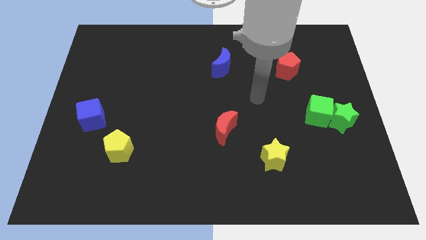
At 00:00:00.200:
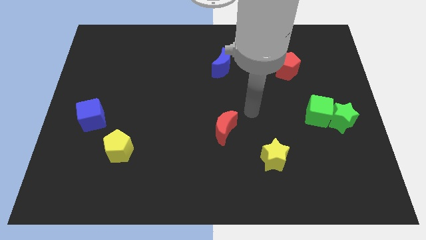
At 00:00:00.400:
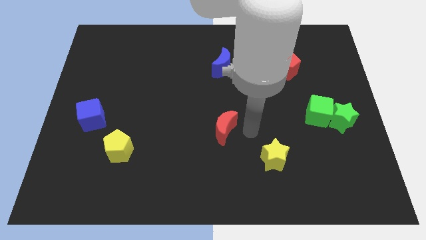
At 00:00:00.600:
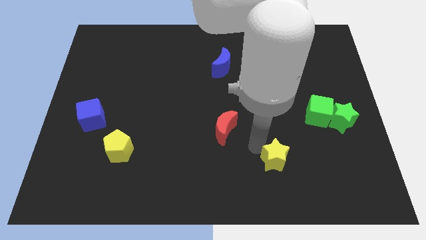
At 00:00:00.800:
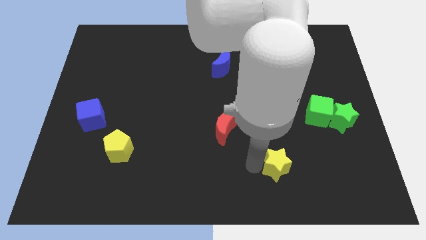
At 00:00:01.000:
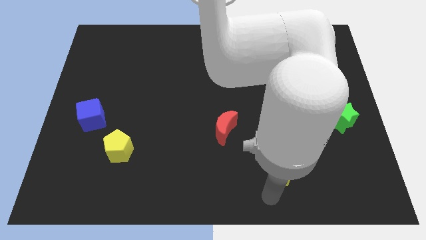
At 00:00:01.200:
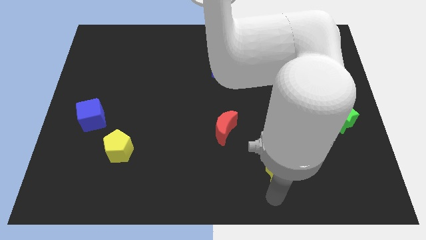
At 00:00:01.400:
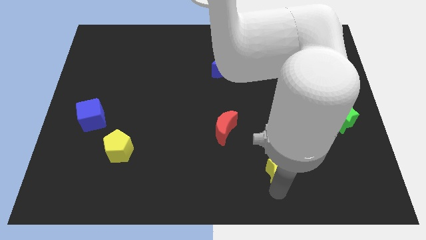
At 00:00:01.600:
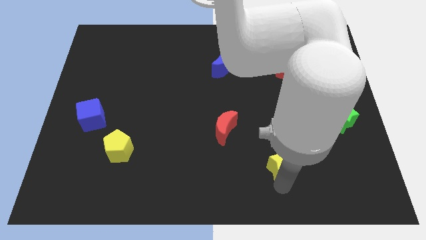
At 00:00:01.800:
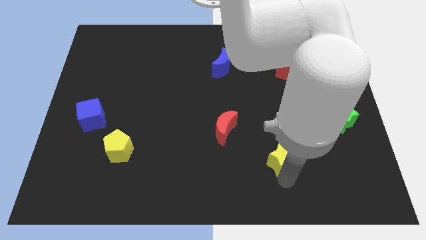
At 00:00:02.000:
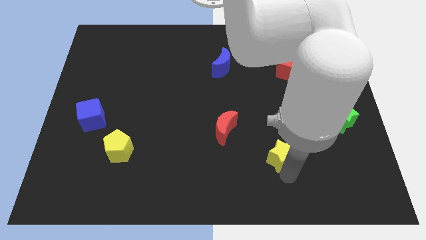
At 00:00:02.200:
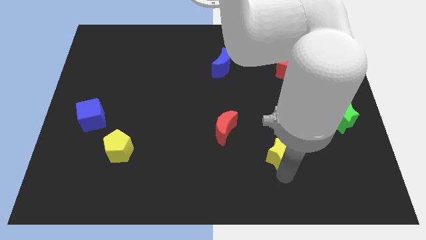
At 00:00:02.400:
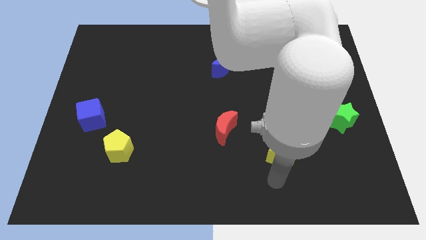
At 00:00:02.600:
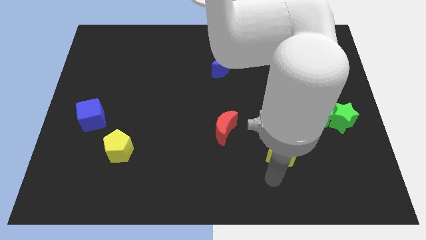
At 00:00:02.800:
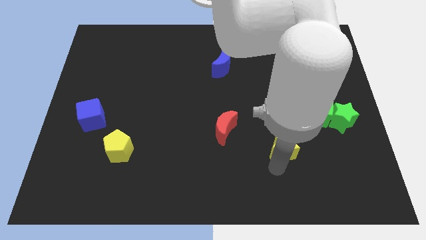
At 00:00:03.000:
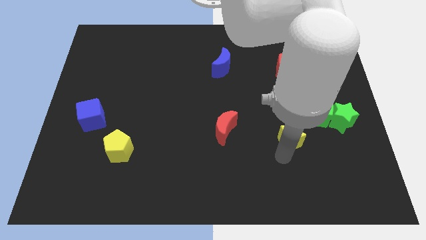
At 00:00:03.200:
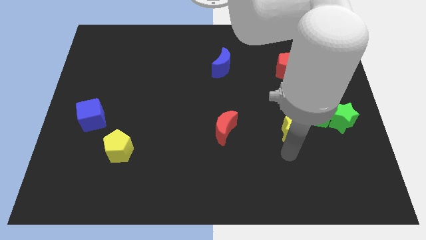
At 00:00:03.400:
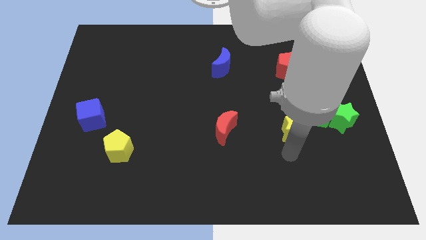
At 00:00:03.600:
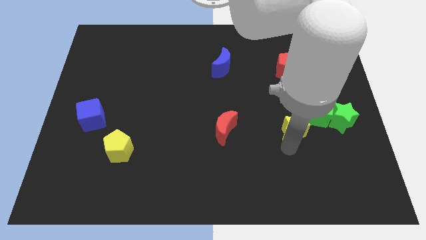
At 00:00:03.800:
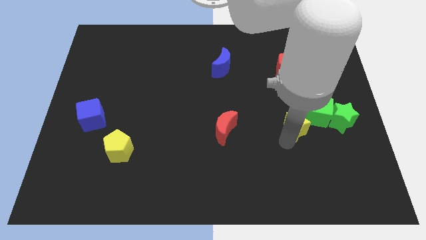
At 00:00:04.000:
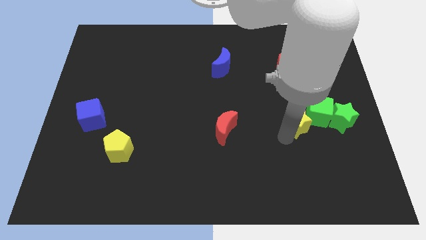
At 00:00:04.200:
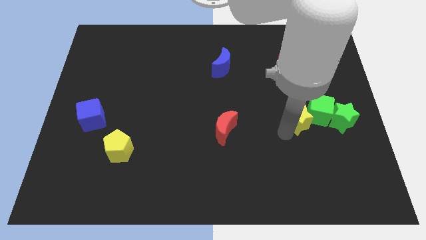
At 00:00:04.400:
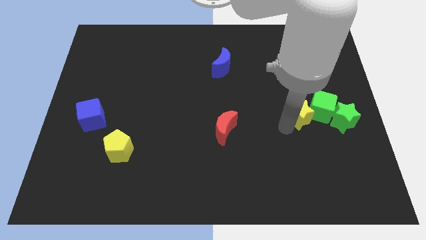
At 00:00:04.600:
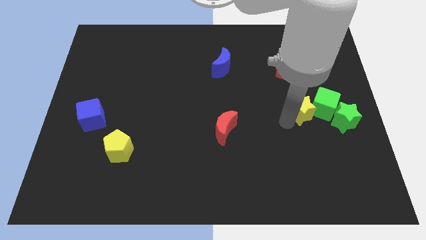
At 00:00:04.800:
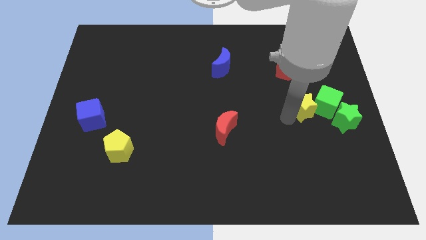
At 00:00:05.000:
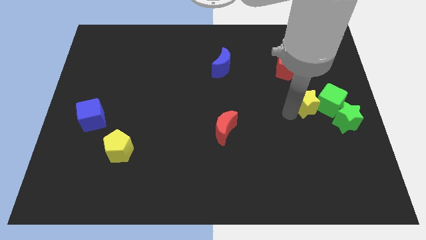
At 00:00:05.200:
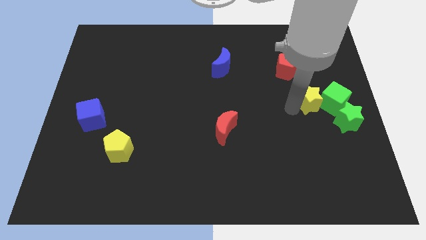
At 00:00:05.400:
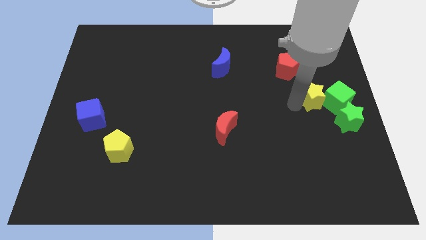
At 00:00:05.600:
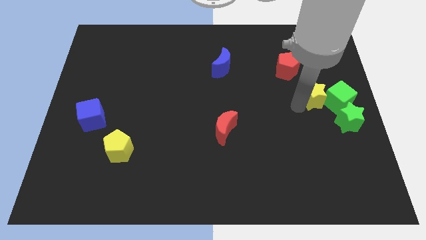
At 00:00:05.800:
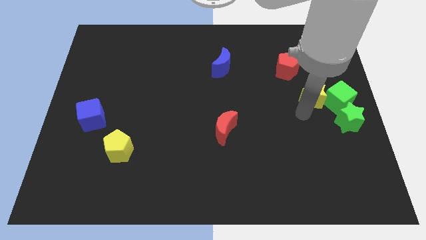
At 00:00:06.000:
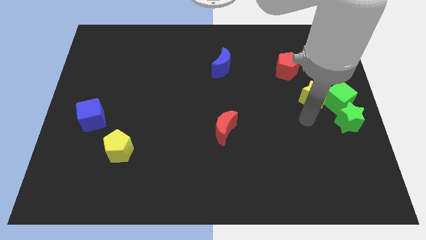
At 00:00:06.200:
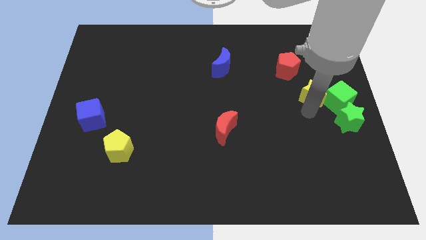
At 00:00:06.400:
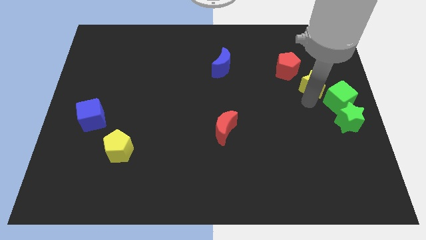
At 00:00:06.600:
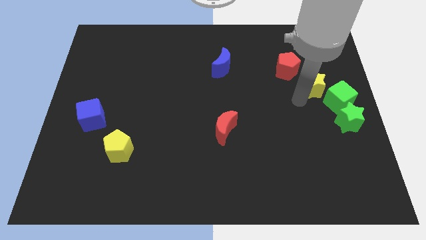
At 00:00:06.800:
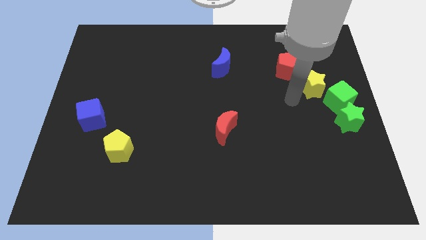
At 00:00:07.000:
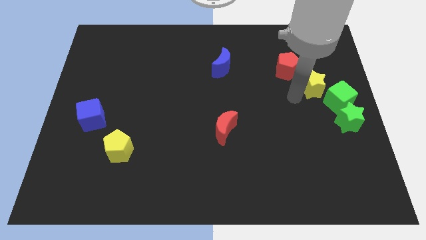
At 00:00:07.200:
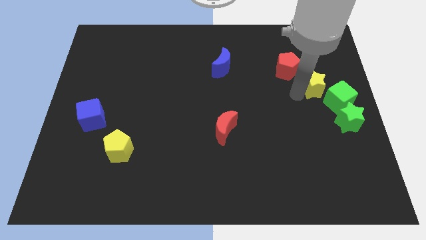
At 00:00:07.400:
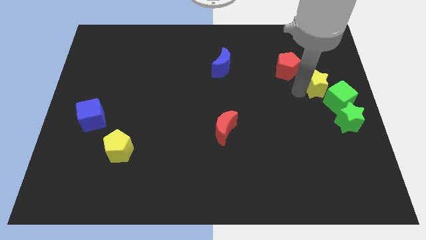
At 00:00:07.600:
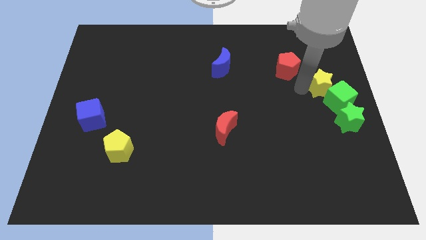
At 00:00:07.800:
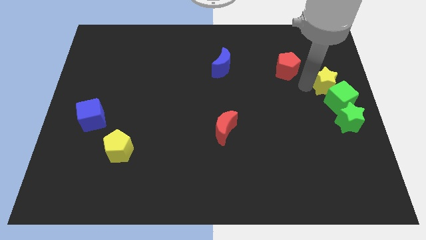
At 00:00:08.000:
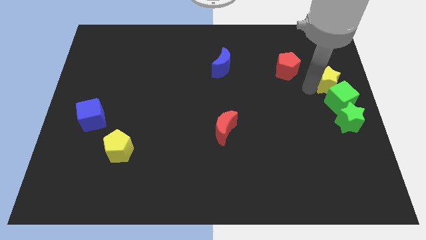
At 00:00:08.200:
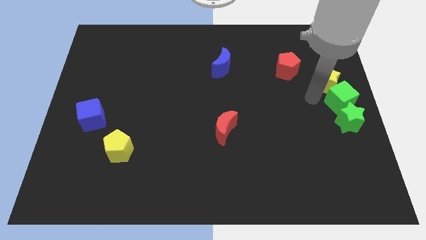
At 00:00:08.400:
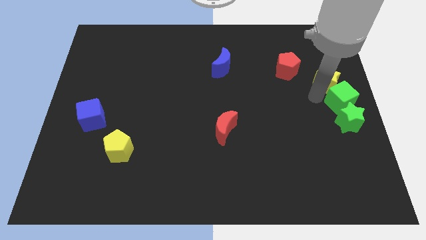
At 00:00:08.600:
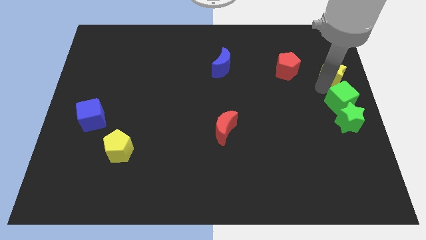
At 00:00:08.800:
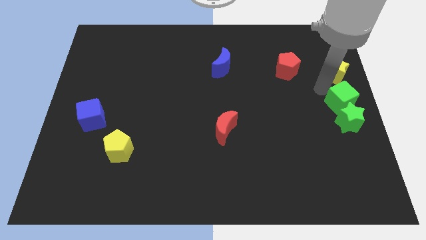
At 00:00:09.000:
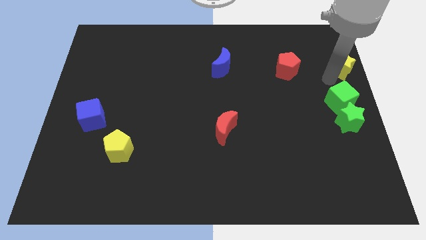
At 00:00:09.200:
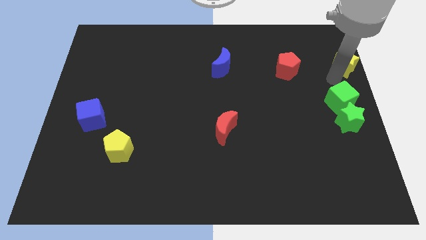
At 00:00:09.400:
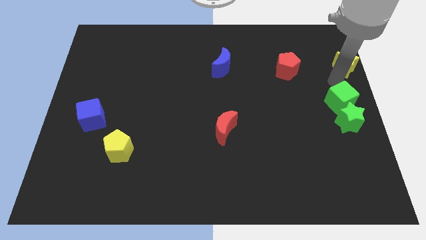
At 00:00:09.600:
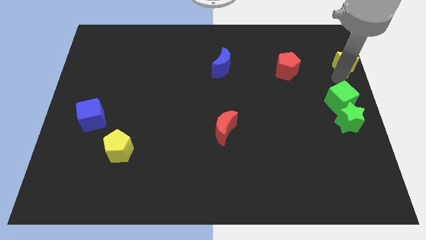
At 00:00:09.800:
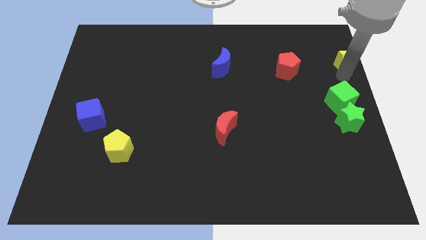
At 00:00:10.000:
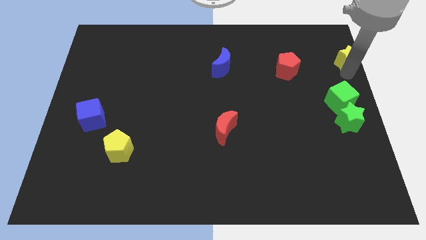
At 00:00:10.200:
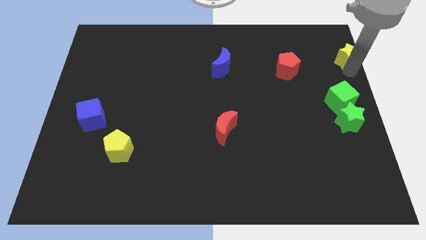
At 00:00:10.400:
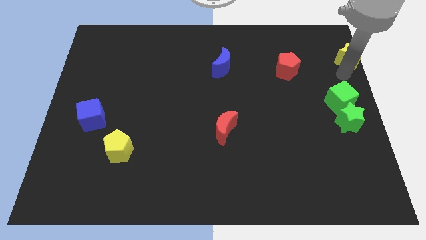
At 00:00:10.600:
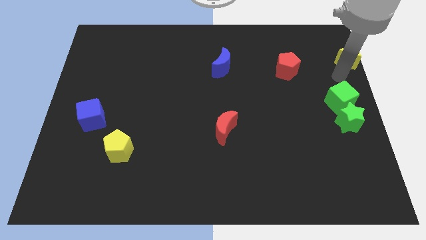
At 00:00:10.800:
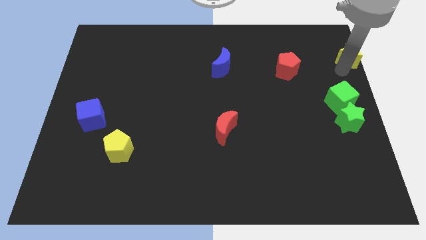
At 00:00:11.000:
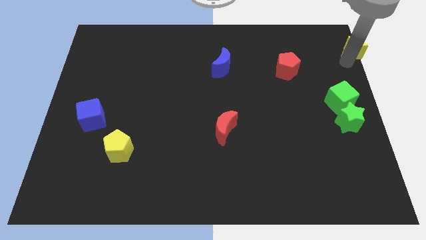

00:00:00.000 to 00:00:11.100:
move the yellow star to the top right
